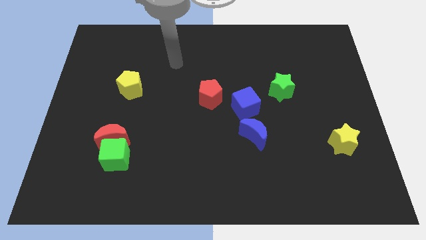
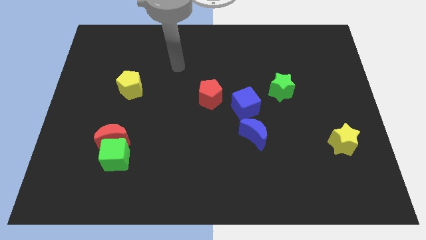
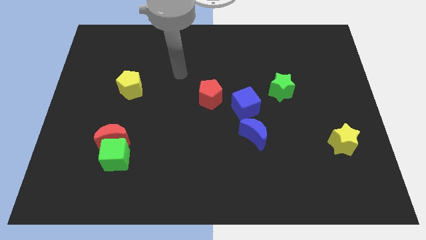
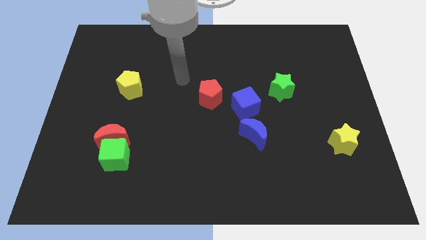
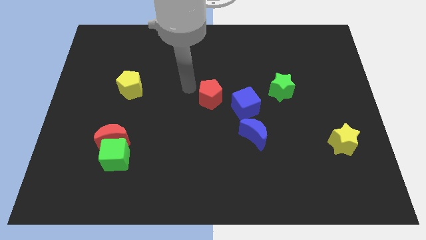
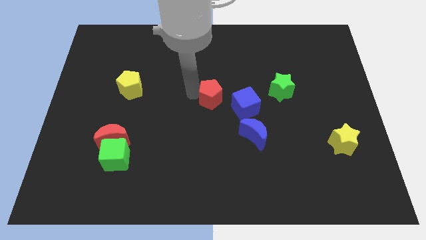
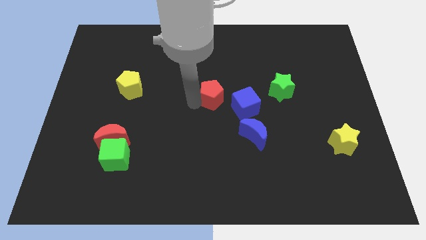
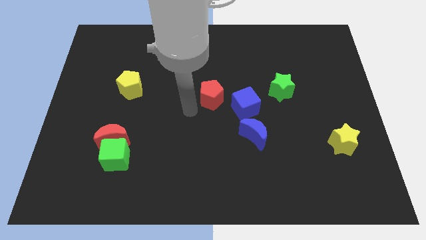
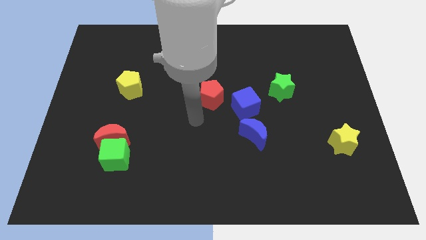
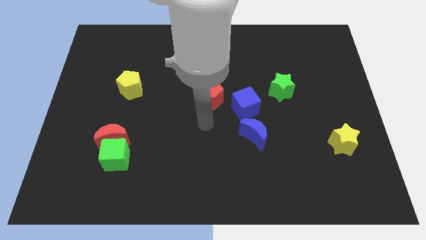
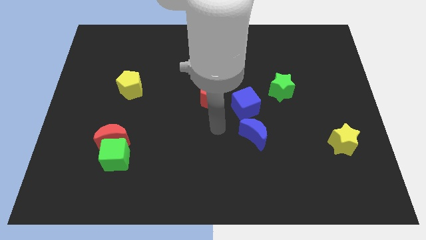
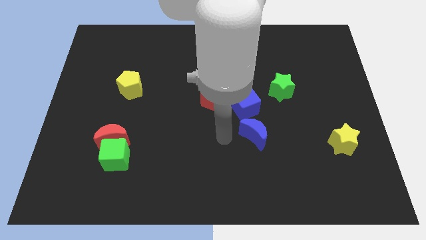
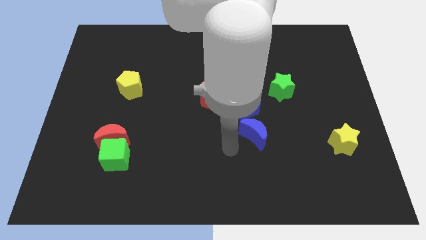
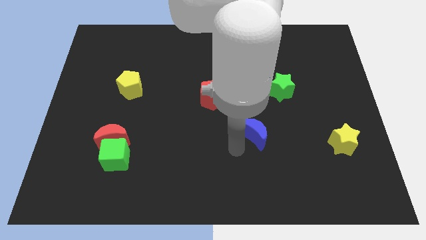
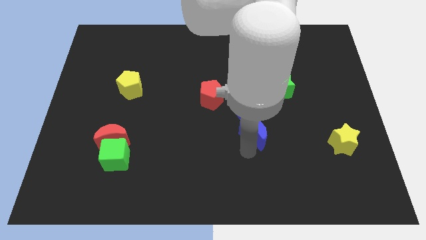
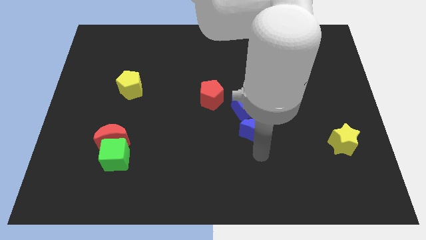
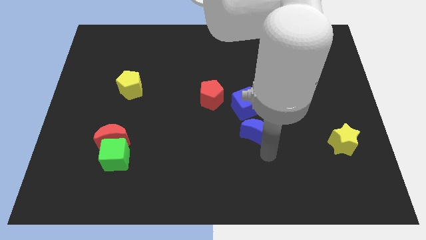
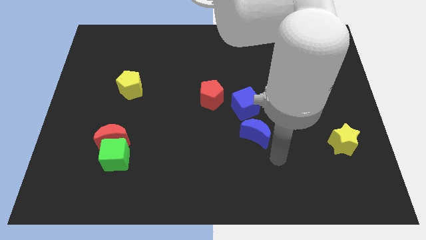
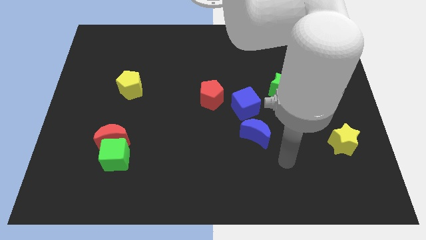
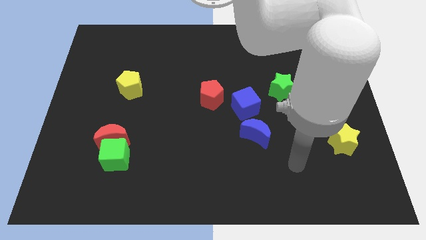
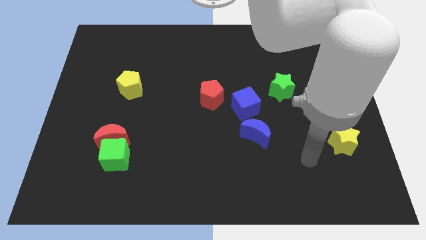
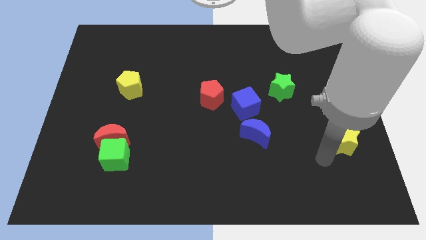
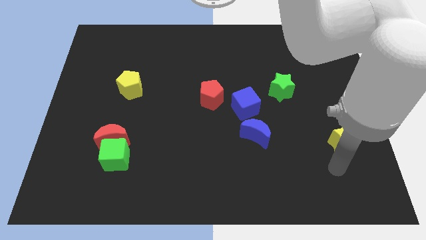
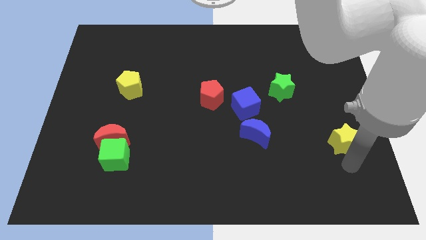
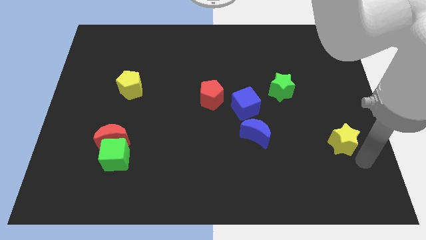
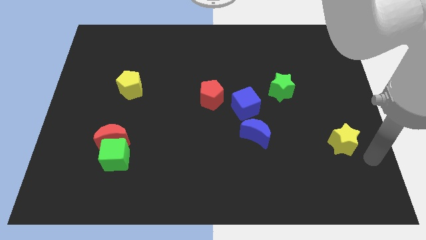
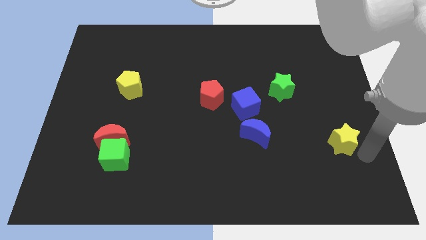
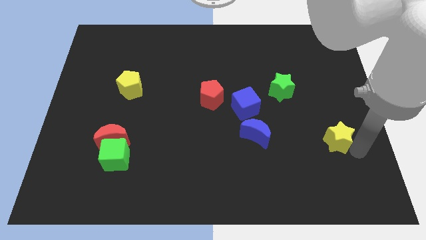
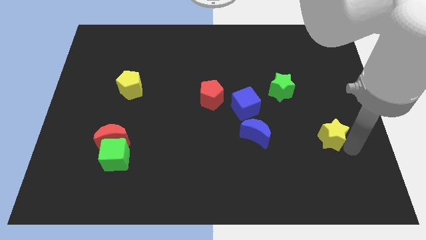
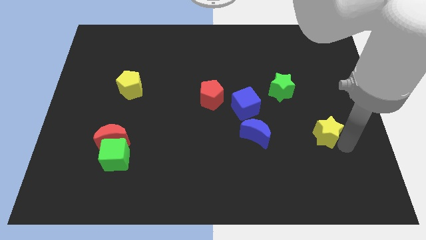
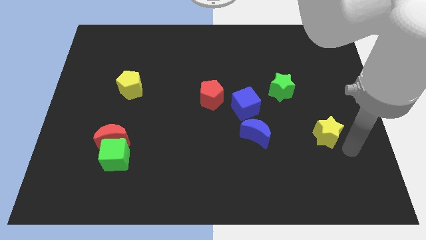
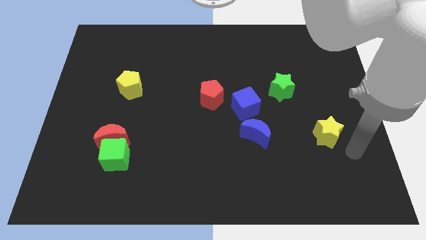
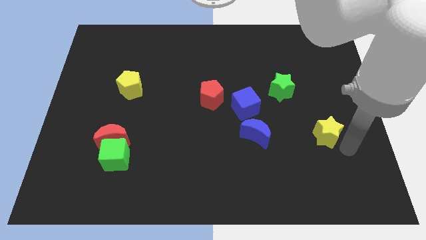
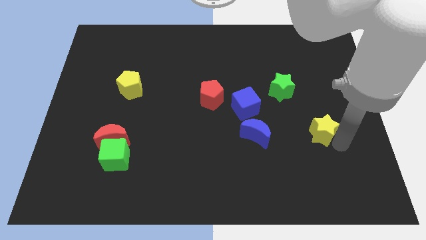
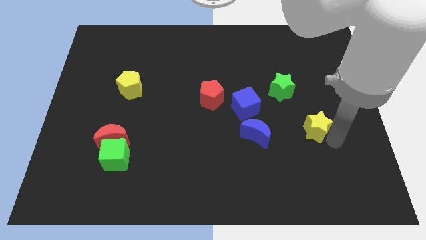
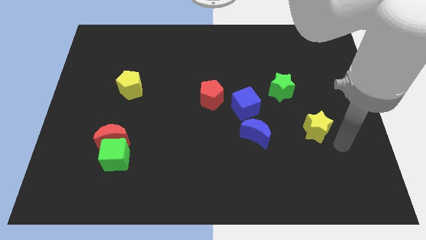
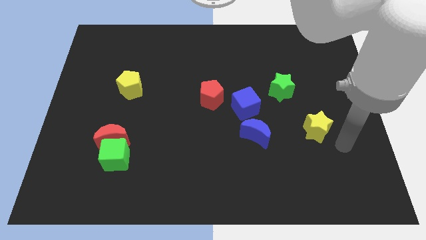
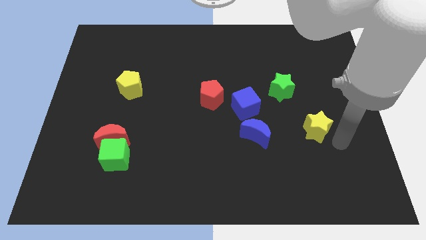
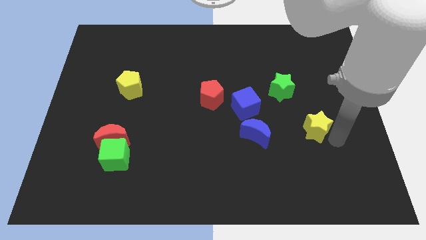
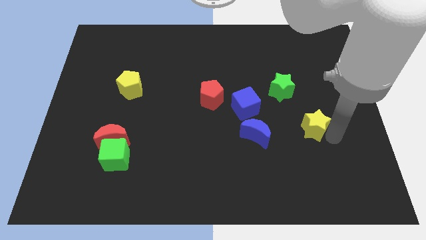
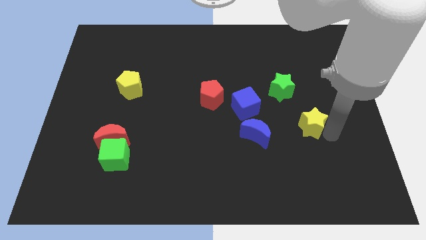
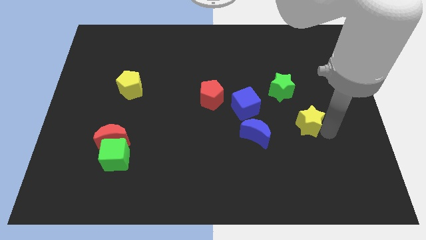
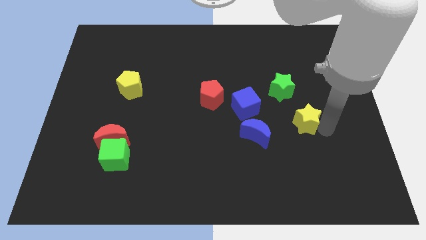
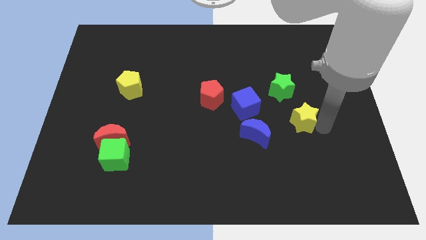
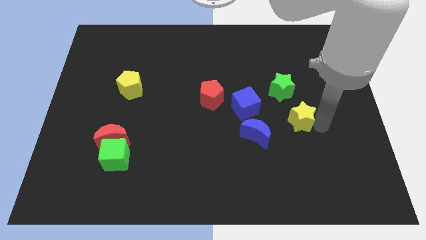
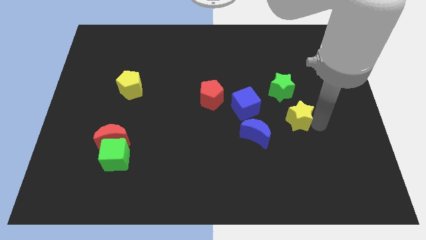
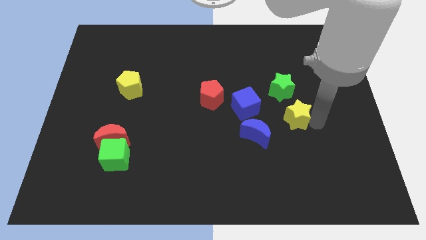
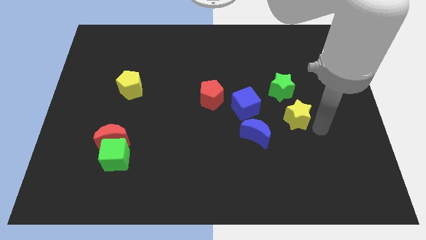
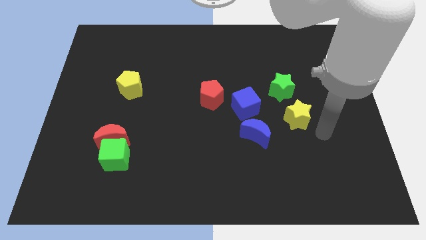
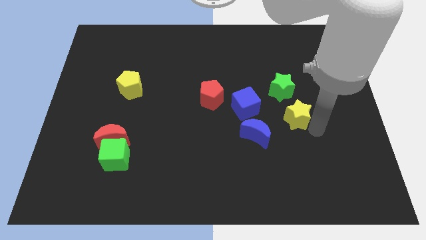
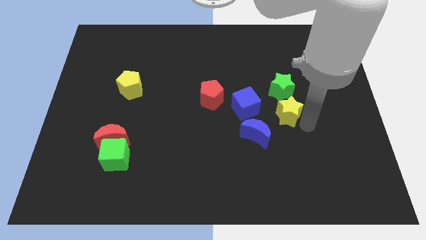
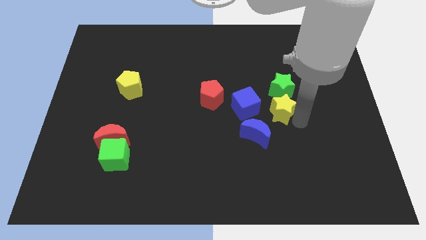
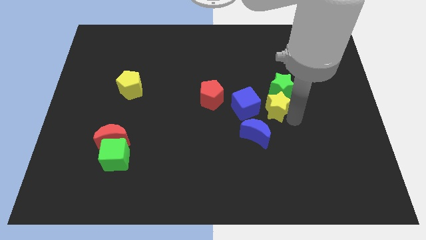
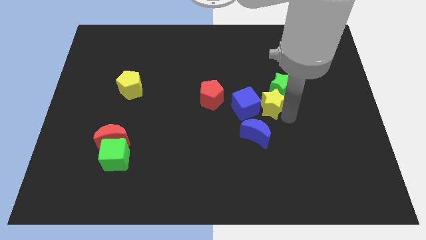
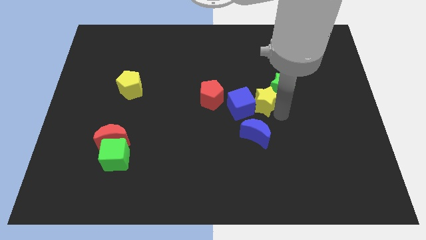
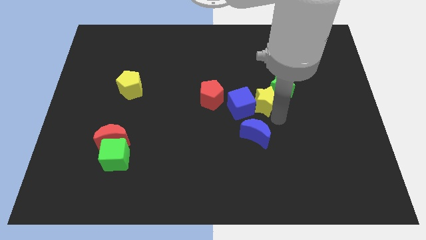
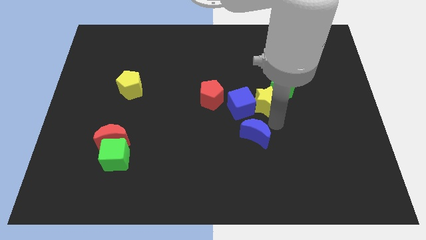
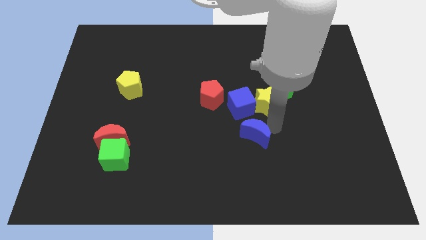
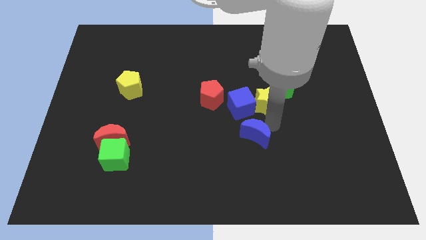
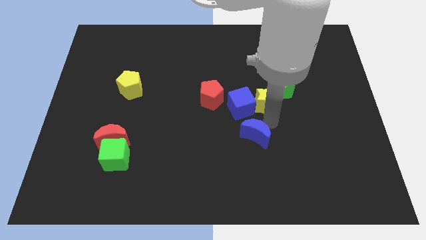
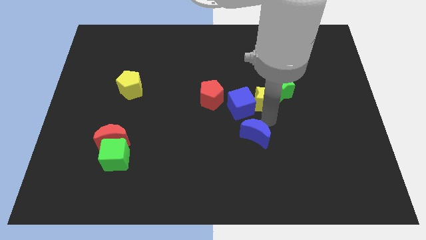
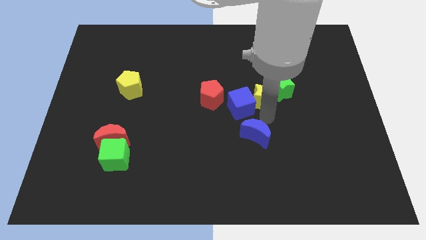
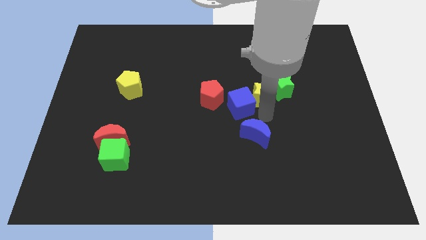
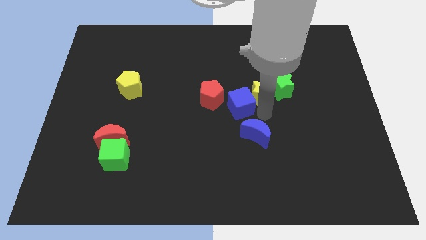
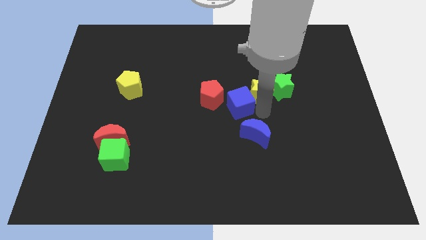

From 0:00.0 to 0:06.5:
slide the yellow star diagonally up and to the left of the green star
